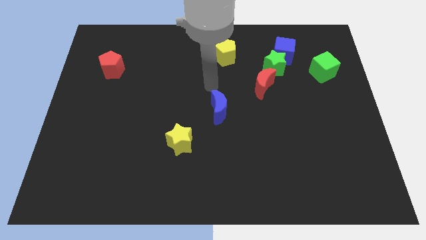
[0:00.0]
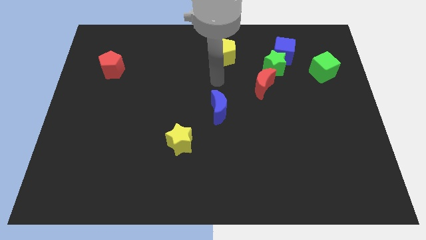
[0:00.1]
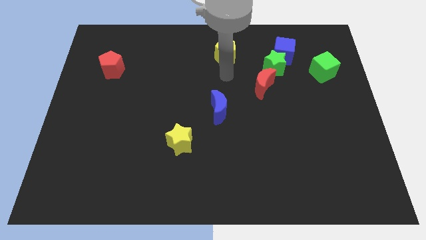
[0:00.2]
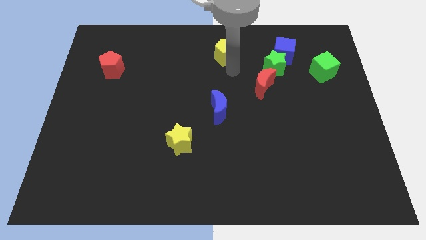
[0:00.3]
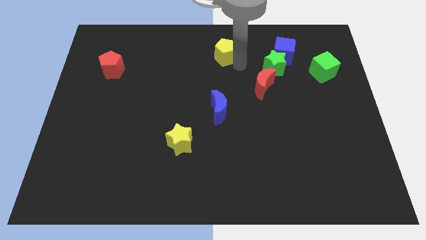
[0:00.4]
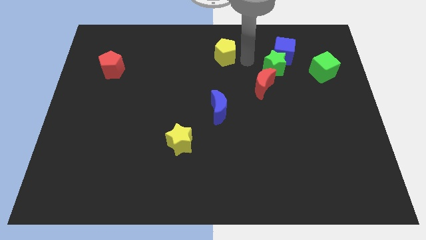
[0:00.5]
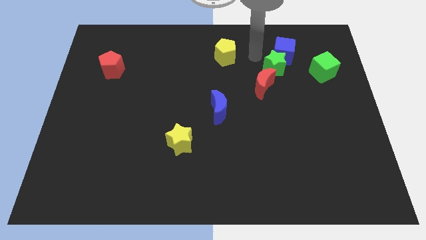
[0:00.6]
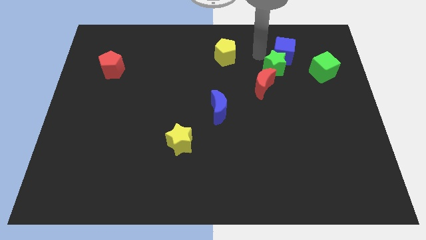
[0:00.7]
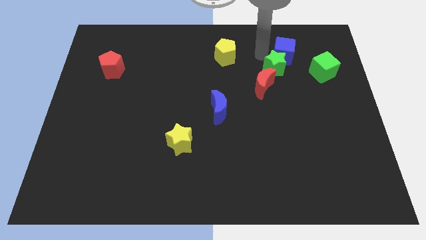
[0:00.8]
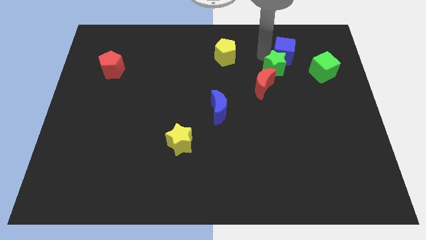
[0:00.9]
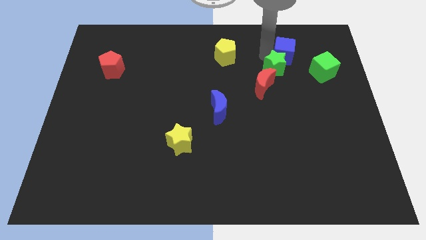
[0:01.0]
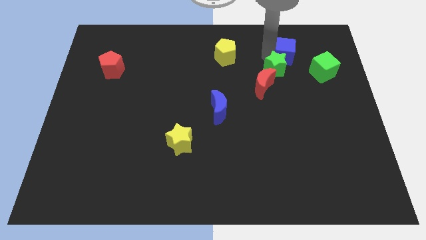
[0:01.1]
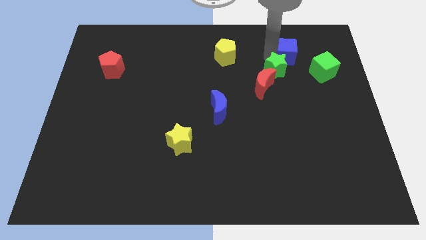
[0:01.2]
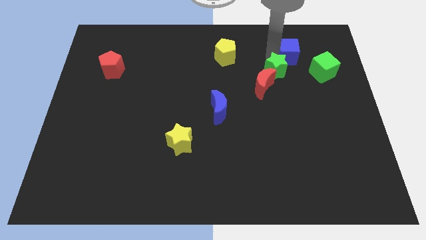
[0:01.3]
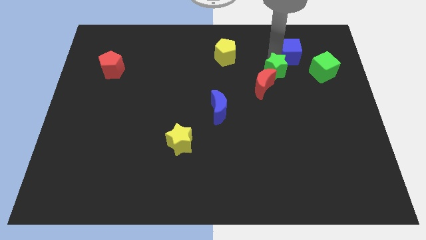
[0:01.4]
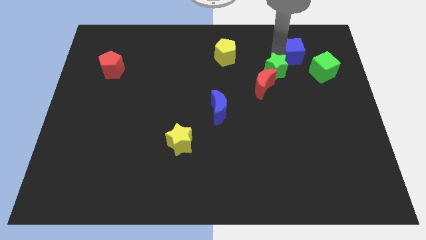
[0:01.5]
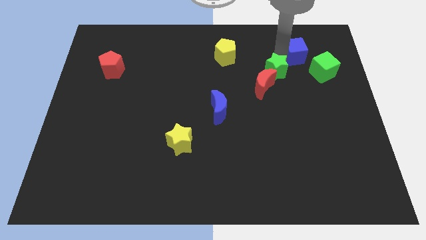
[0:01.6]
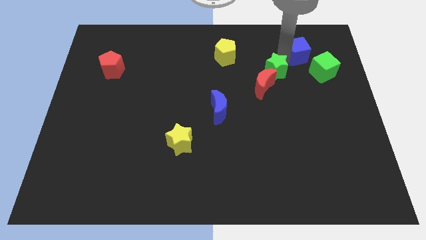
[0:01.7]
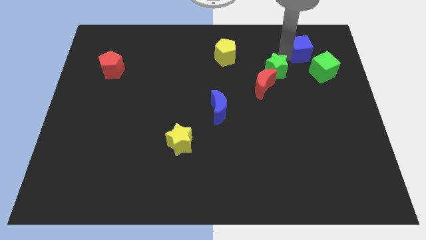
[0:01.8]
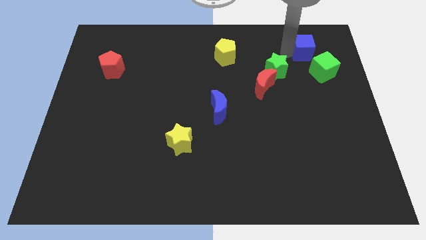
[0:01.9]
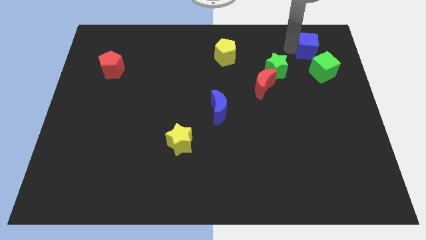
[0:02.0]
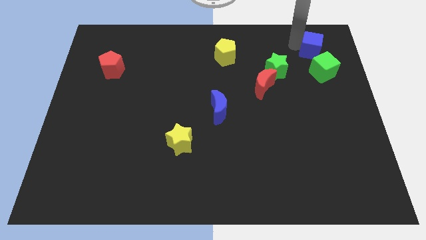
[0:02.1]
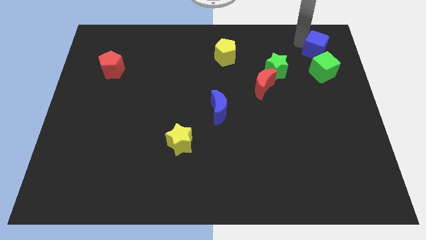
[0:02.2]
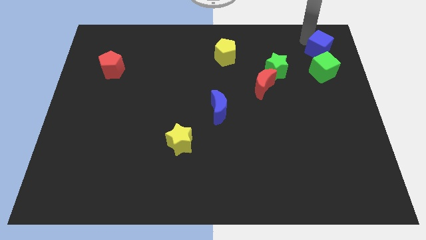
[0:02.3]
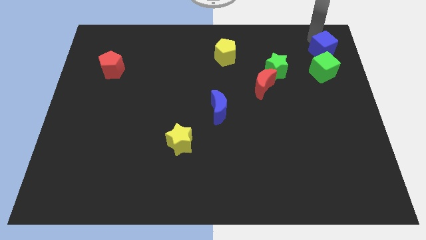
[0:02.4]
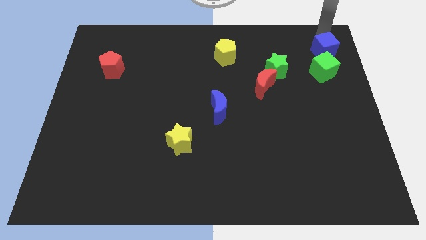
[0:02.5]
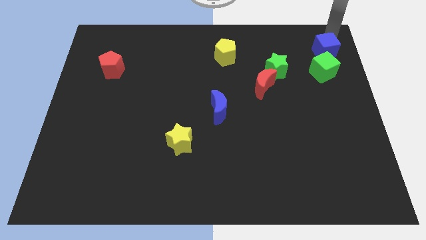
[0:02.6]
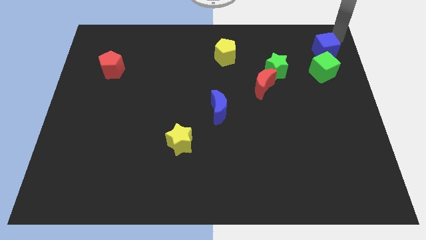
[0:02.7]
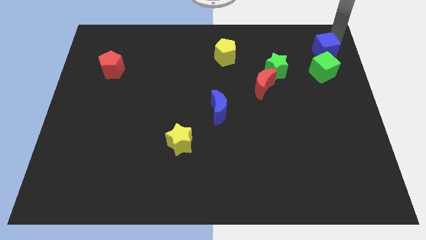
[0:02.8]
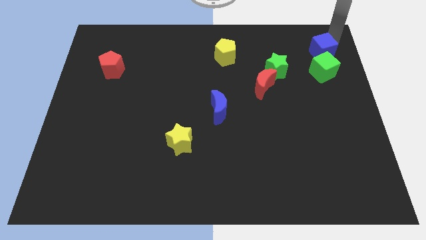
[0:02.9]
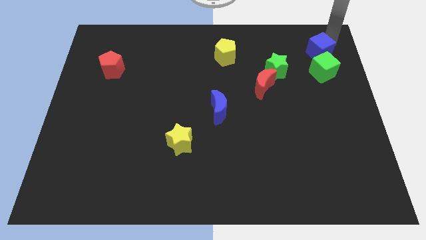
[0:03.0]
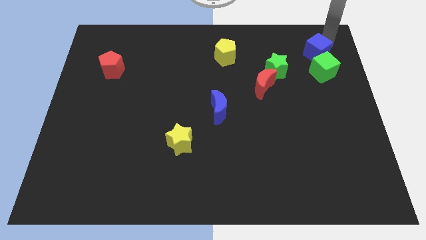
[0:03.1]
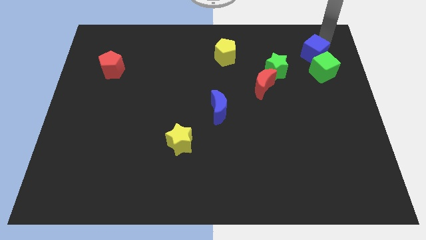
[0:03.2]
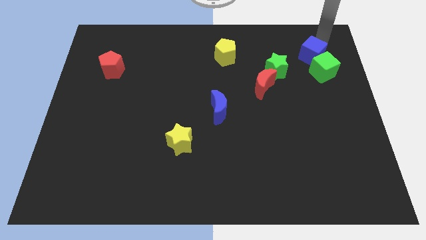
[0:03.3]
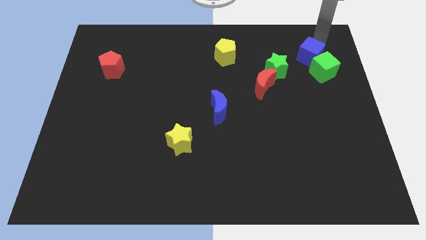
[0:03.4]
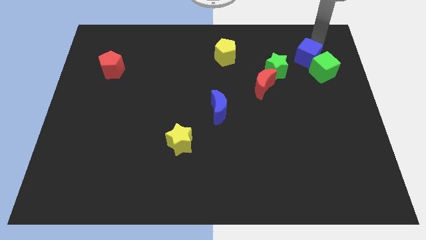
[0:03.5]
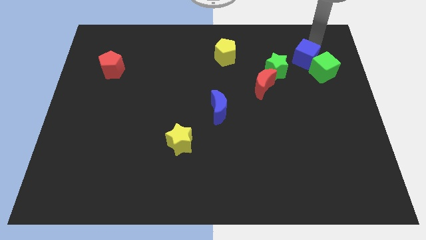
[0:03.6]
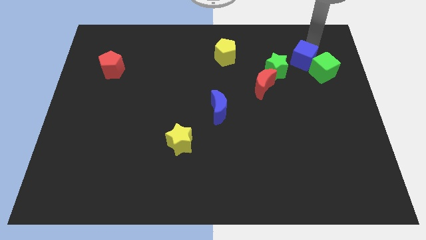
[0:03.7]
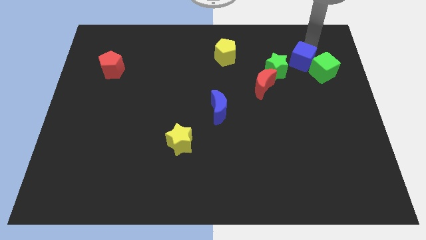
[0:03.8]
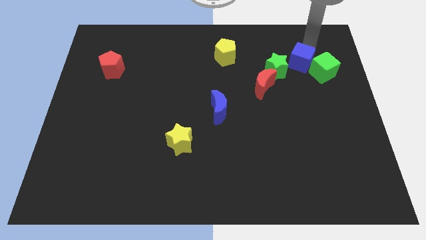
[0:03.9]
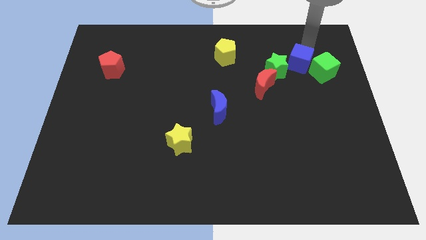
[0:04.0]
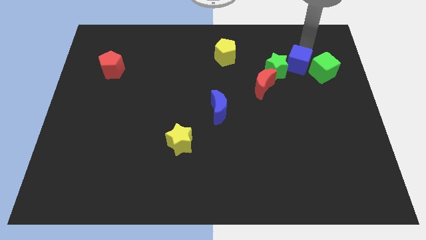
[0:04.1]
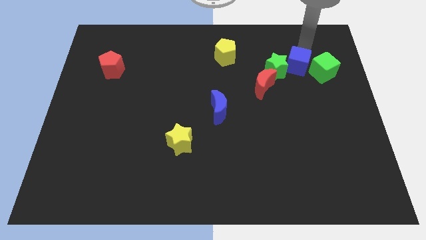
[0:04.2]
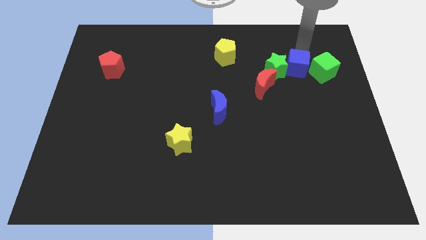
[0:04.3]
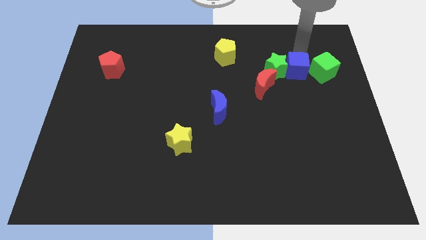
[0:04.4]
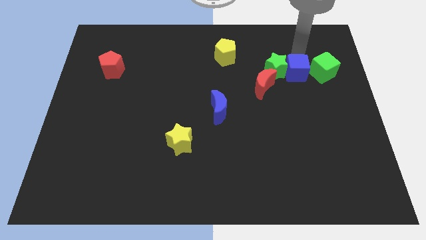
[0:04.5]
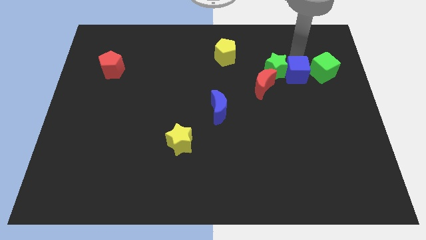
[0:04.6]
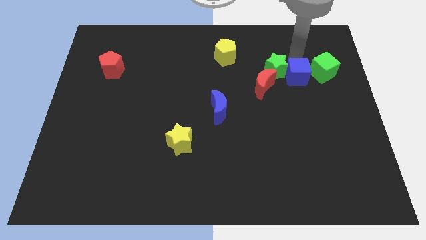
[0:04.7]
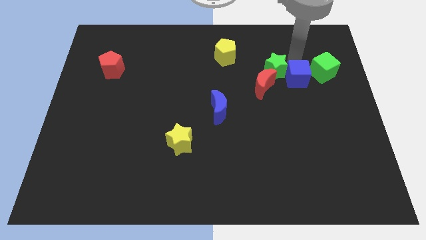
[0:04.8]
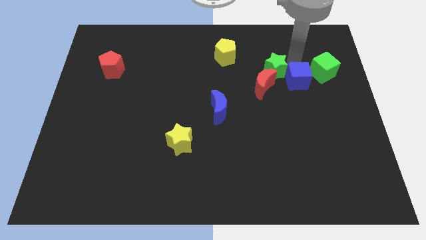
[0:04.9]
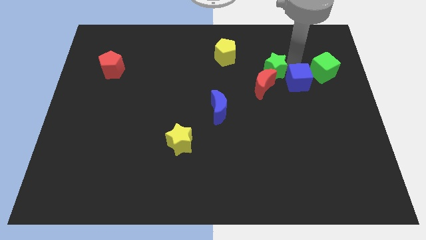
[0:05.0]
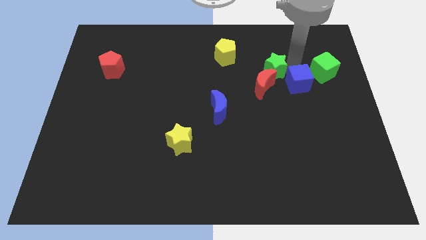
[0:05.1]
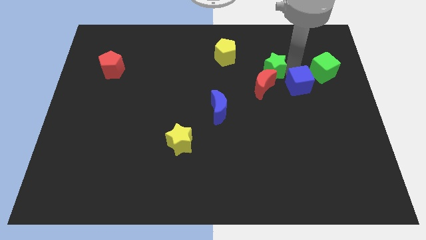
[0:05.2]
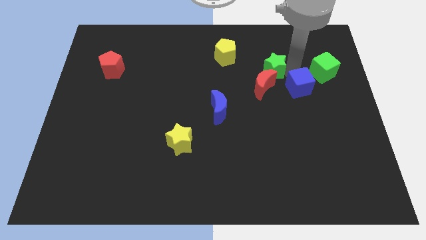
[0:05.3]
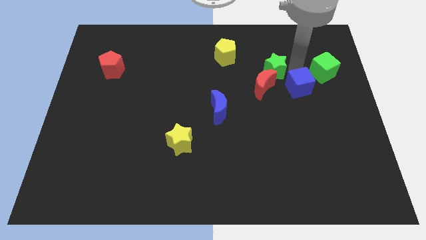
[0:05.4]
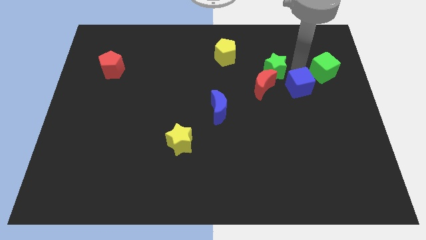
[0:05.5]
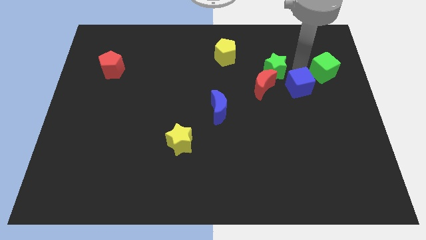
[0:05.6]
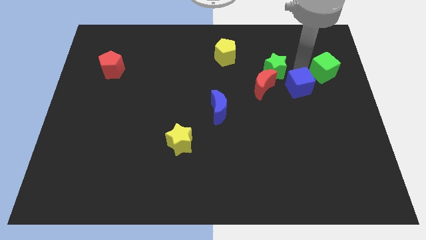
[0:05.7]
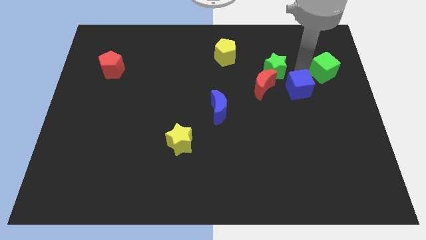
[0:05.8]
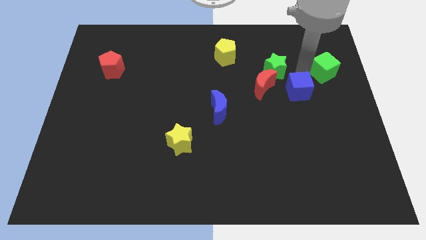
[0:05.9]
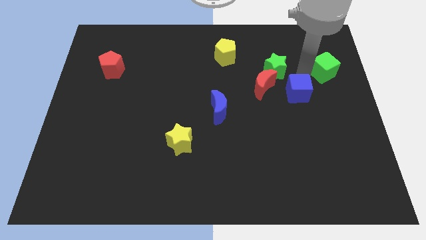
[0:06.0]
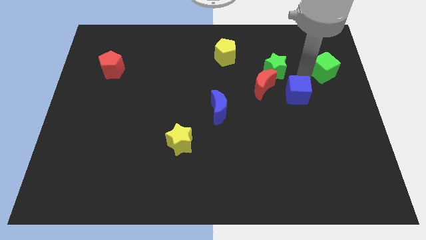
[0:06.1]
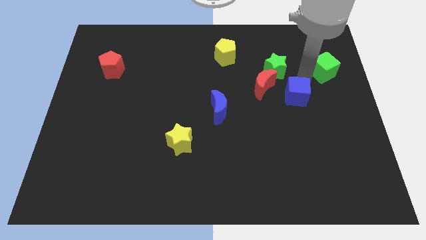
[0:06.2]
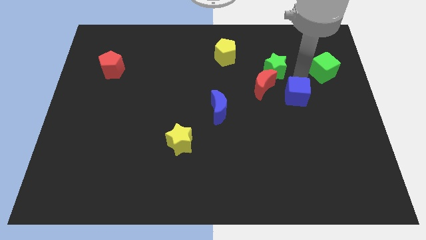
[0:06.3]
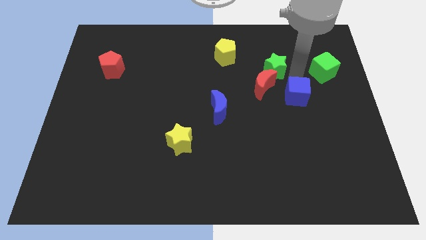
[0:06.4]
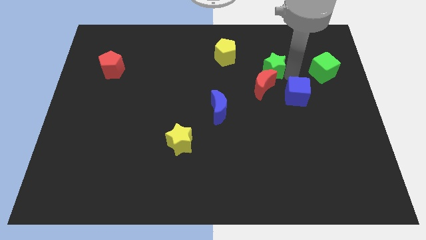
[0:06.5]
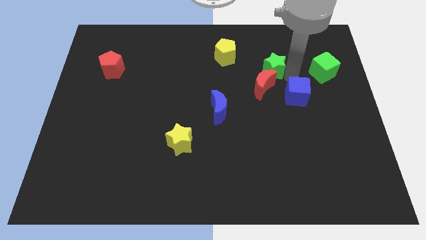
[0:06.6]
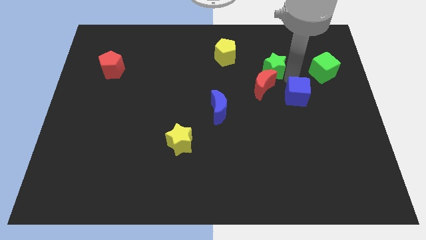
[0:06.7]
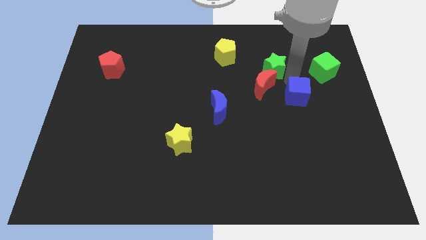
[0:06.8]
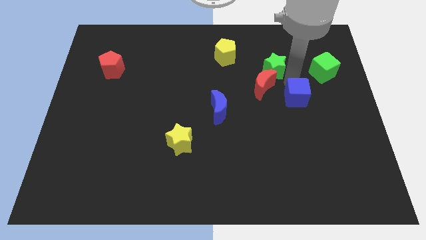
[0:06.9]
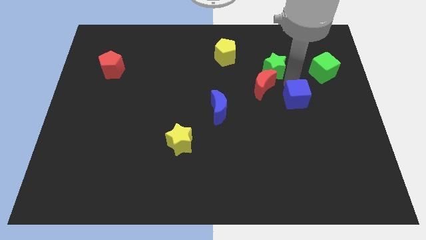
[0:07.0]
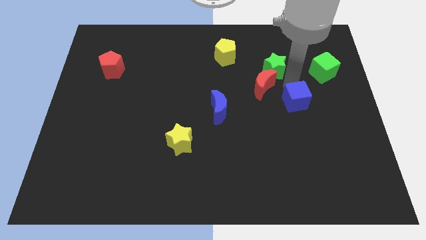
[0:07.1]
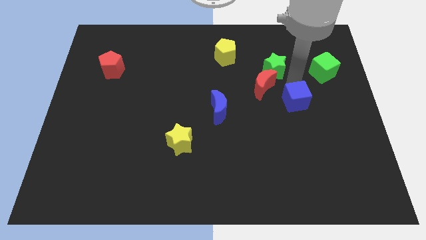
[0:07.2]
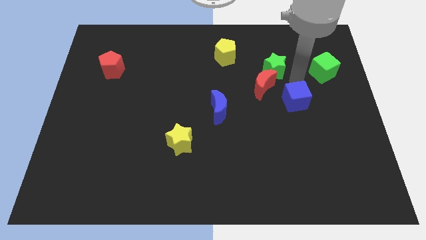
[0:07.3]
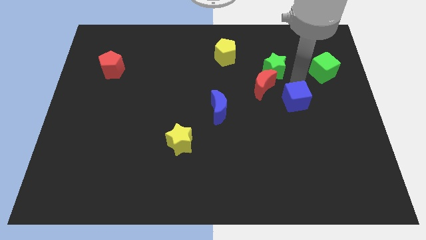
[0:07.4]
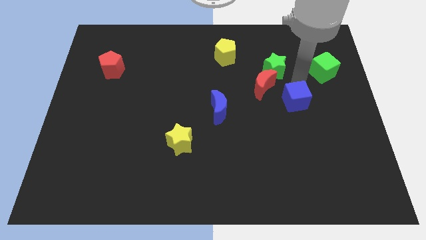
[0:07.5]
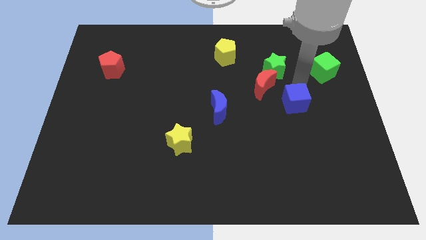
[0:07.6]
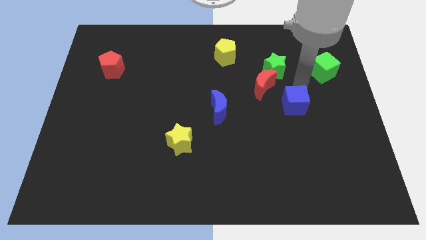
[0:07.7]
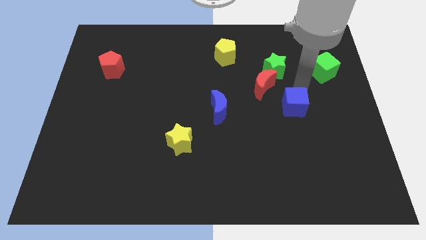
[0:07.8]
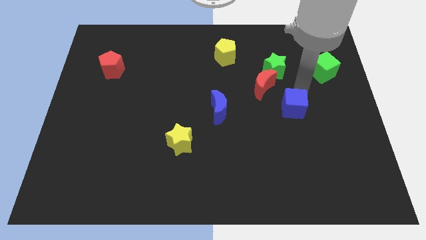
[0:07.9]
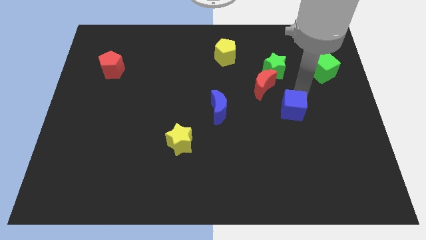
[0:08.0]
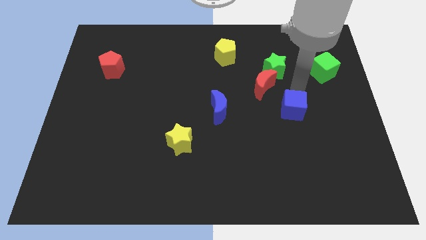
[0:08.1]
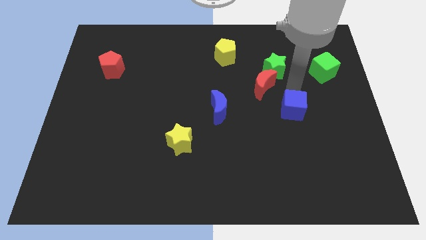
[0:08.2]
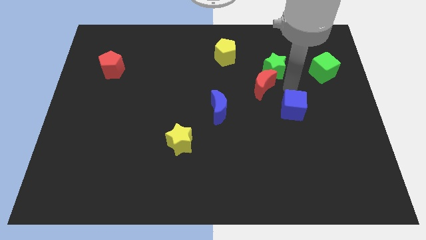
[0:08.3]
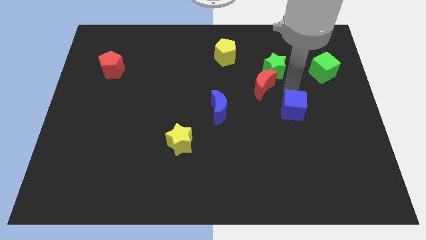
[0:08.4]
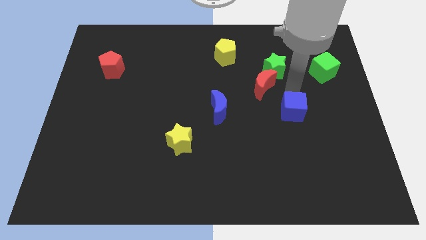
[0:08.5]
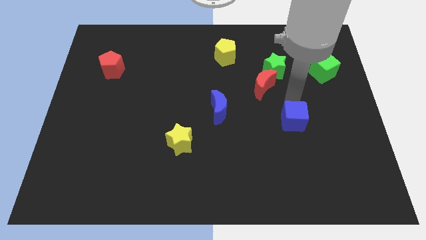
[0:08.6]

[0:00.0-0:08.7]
push the blue cube downwards
